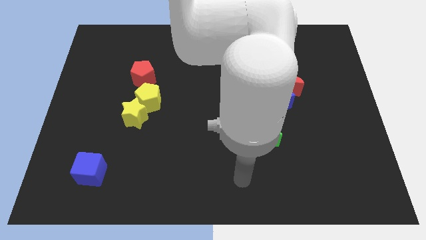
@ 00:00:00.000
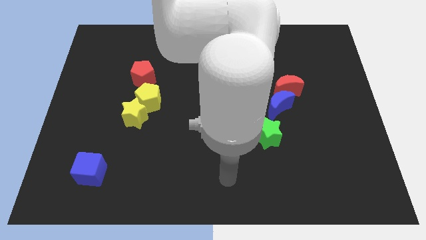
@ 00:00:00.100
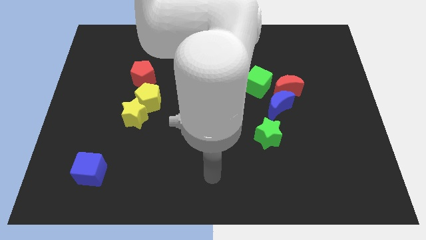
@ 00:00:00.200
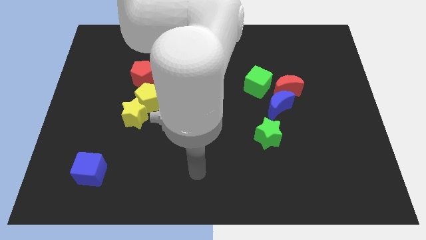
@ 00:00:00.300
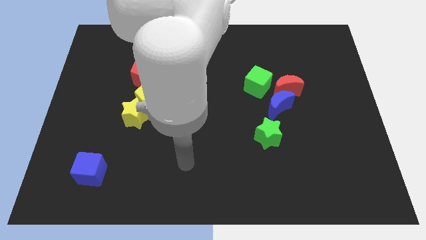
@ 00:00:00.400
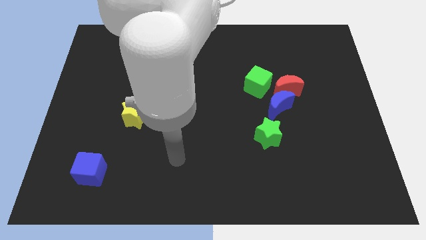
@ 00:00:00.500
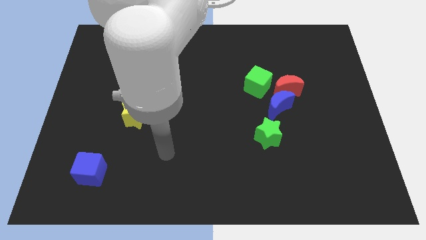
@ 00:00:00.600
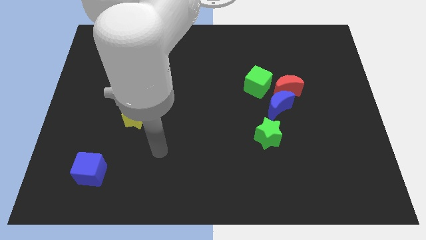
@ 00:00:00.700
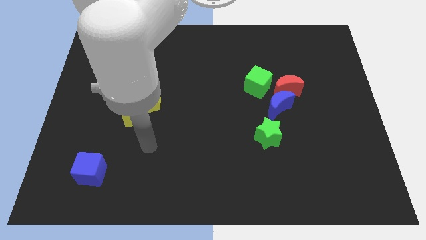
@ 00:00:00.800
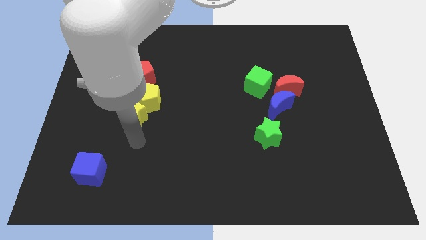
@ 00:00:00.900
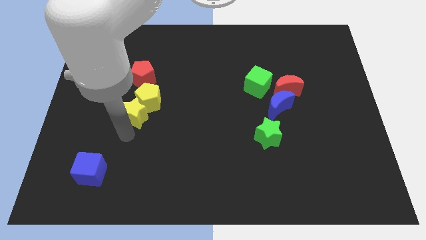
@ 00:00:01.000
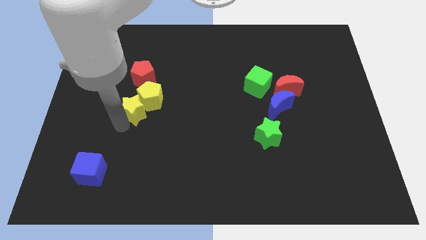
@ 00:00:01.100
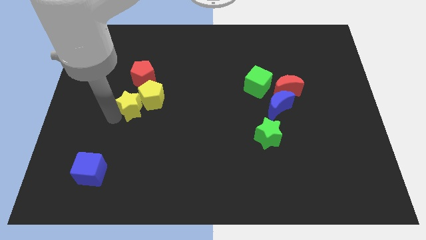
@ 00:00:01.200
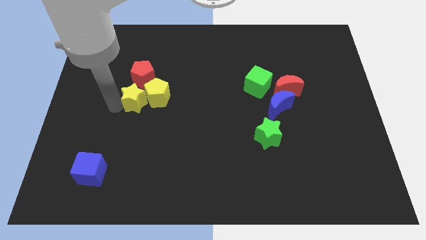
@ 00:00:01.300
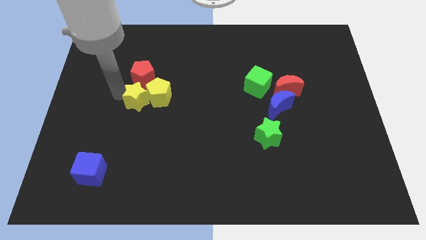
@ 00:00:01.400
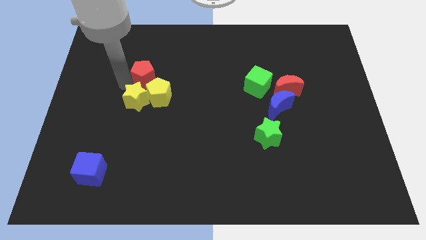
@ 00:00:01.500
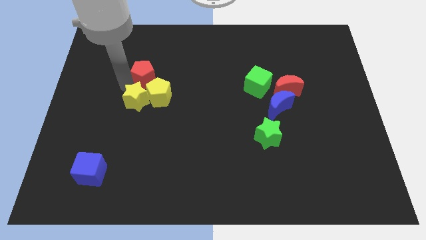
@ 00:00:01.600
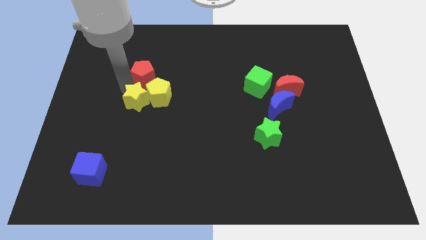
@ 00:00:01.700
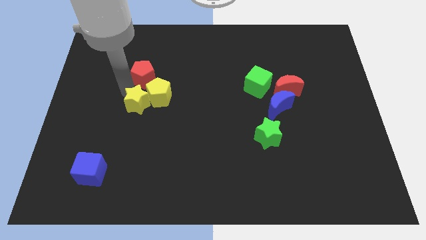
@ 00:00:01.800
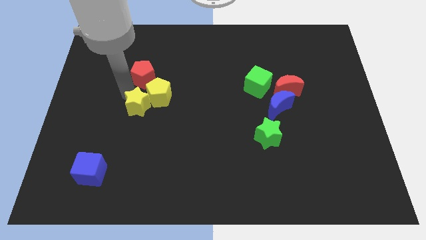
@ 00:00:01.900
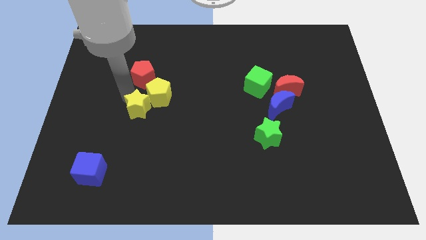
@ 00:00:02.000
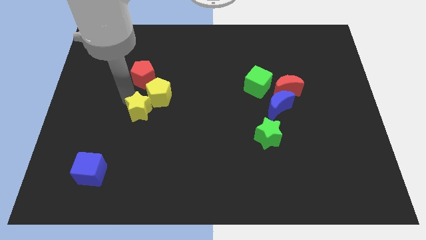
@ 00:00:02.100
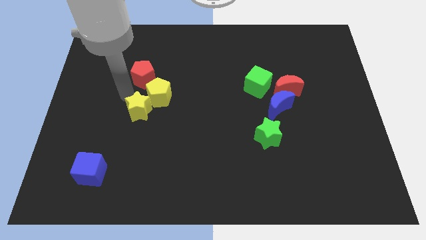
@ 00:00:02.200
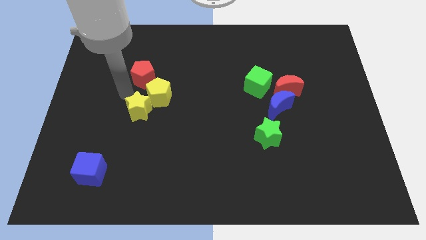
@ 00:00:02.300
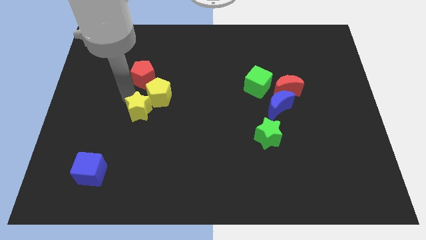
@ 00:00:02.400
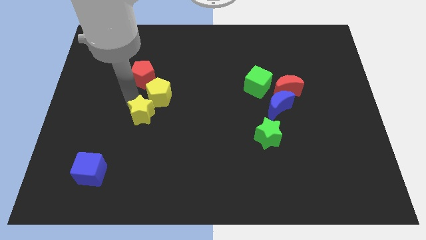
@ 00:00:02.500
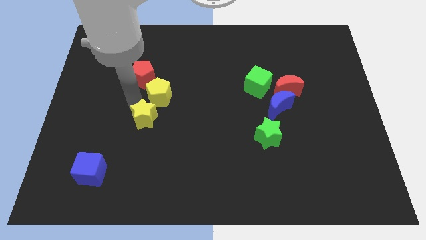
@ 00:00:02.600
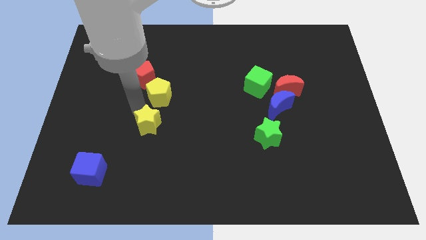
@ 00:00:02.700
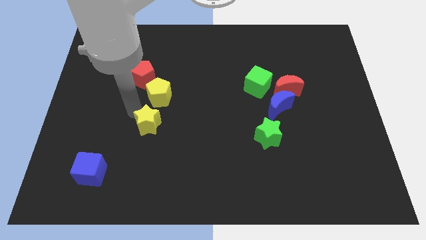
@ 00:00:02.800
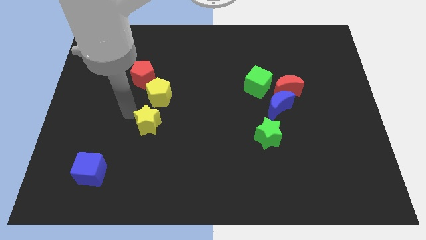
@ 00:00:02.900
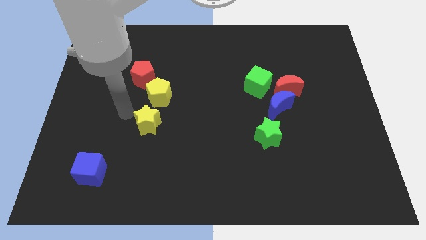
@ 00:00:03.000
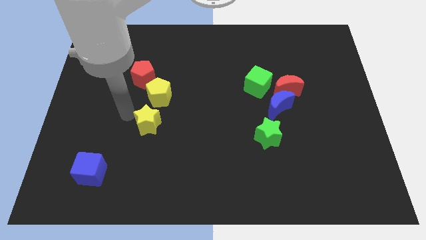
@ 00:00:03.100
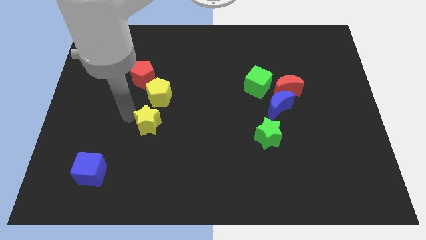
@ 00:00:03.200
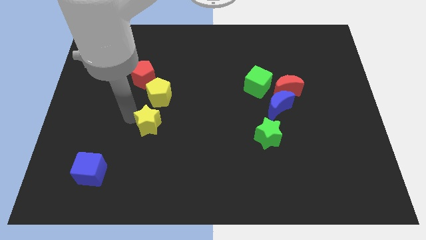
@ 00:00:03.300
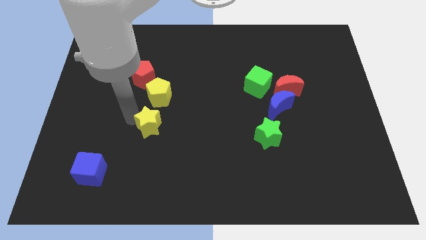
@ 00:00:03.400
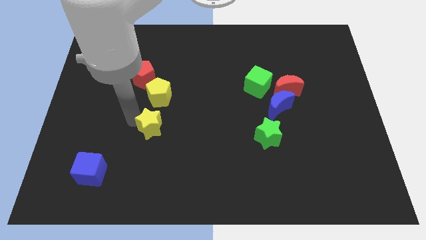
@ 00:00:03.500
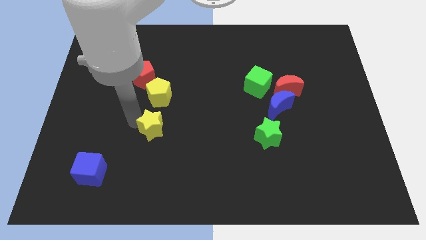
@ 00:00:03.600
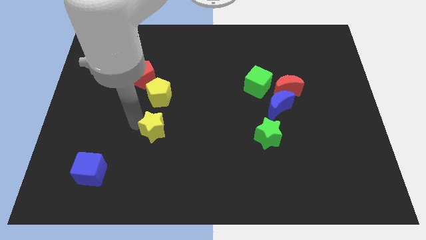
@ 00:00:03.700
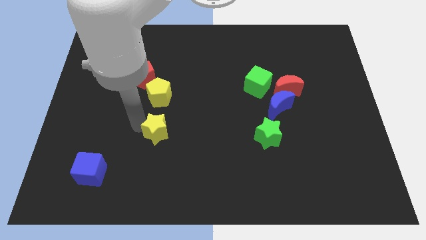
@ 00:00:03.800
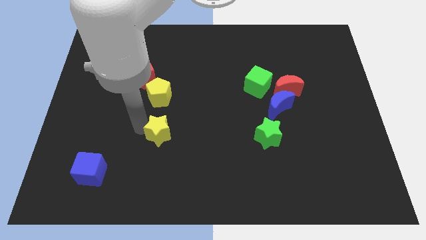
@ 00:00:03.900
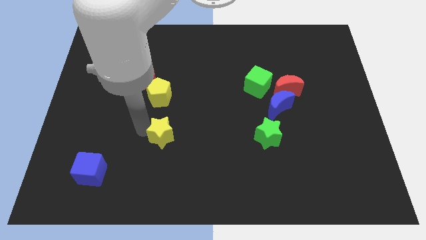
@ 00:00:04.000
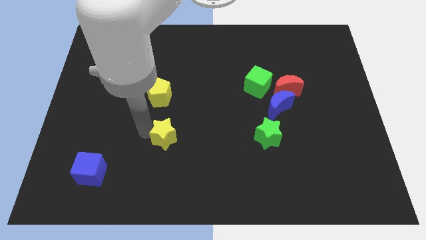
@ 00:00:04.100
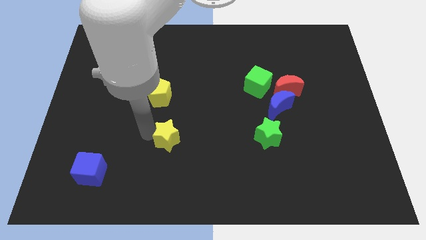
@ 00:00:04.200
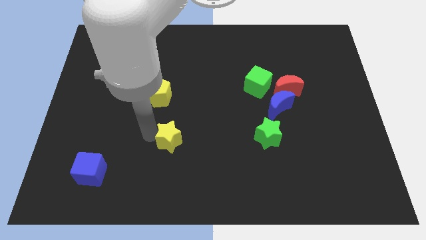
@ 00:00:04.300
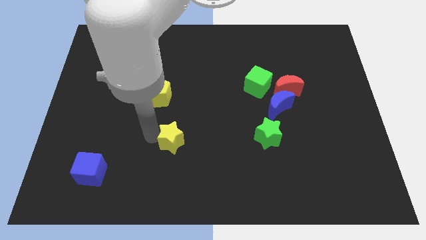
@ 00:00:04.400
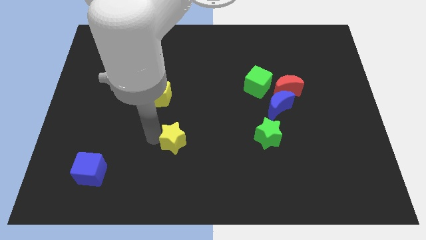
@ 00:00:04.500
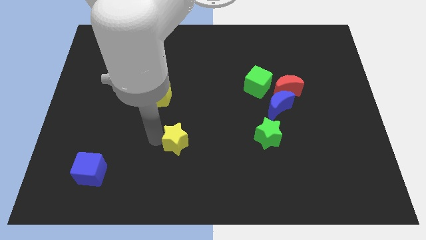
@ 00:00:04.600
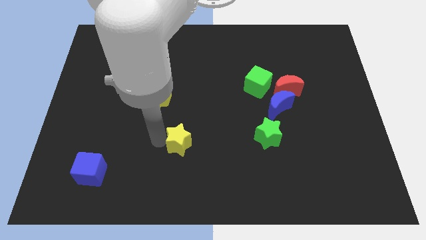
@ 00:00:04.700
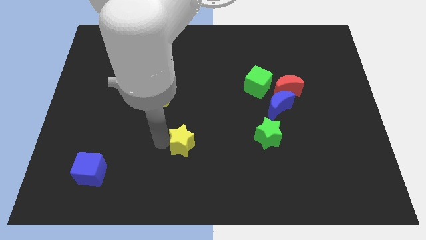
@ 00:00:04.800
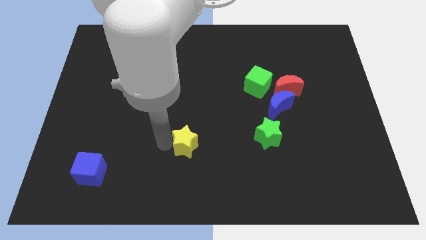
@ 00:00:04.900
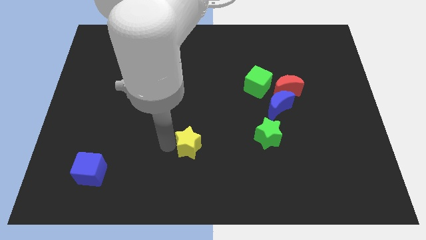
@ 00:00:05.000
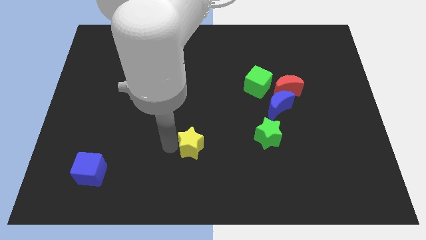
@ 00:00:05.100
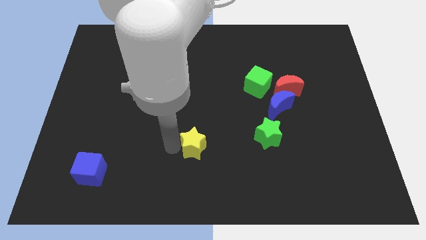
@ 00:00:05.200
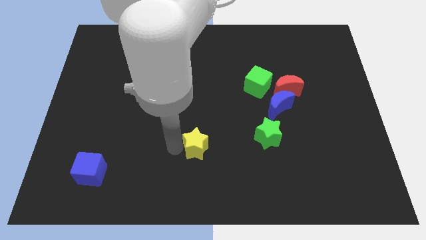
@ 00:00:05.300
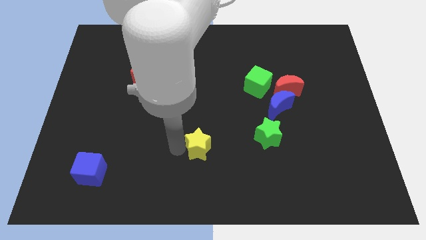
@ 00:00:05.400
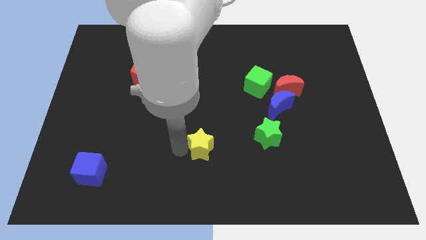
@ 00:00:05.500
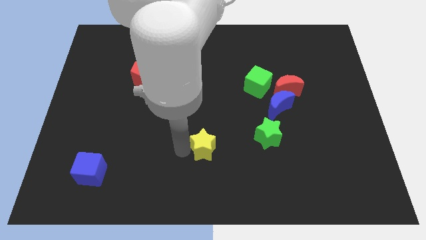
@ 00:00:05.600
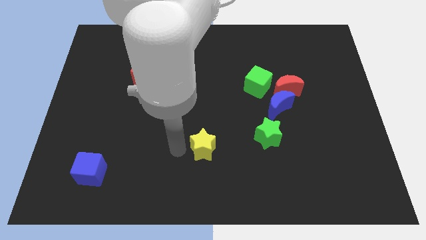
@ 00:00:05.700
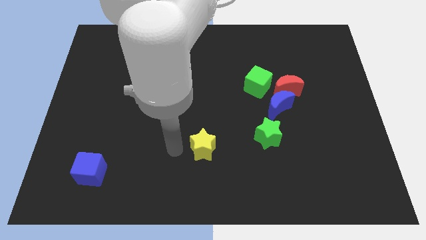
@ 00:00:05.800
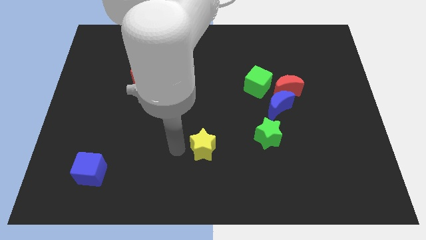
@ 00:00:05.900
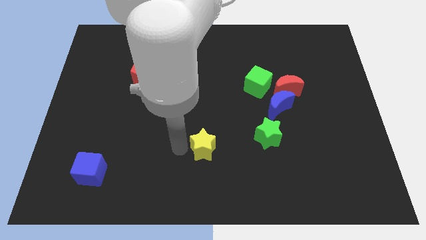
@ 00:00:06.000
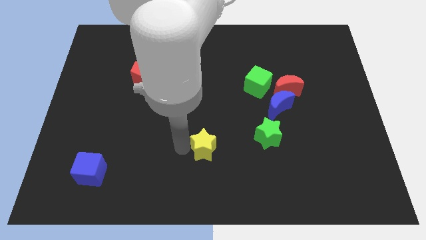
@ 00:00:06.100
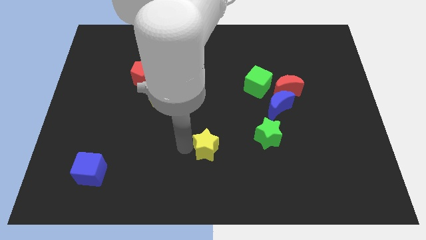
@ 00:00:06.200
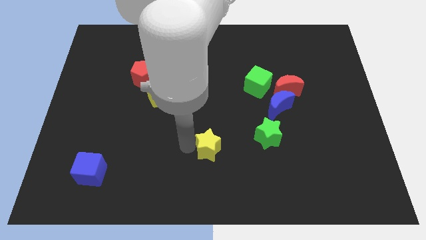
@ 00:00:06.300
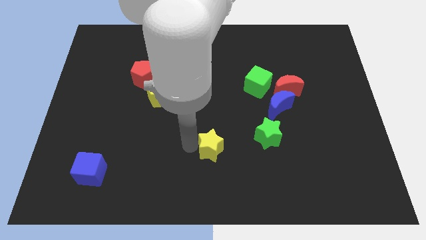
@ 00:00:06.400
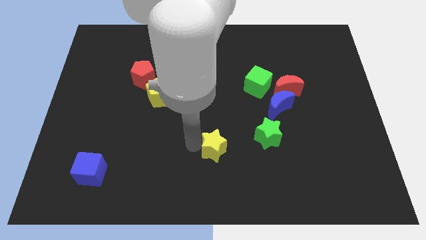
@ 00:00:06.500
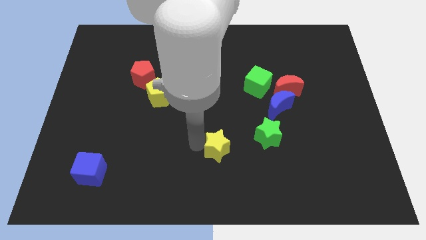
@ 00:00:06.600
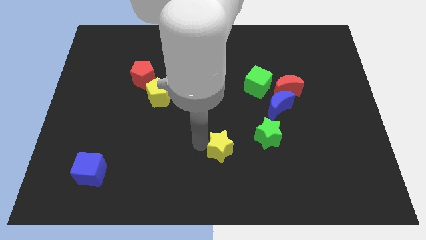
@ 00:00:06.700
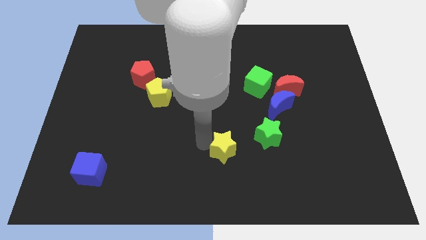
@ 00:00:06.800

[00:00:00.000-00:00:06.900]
put the yellow star to the bottom left side of the green star

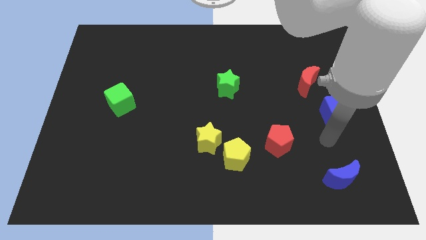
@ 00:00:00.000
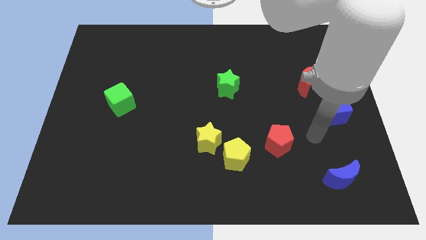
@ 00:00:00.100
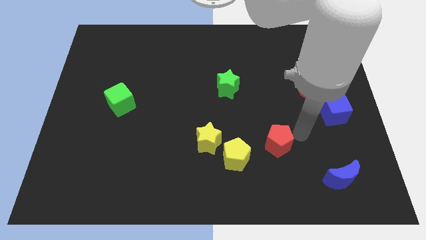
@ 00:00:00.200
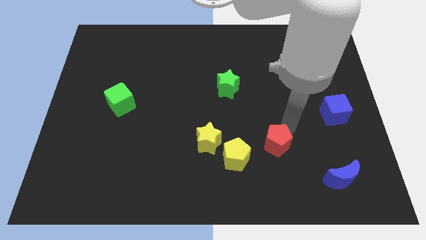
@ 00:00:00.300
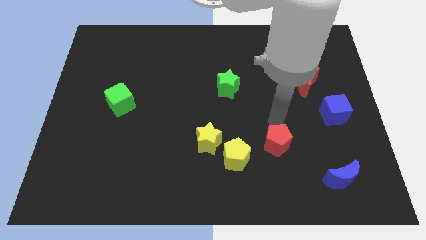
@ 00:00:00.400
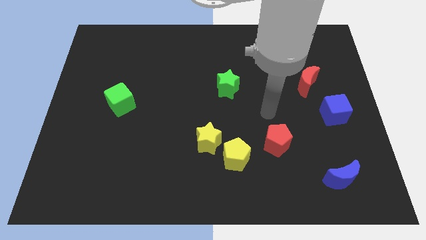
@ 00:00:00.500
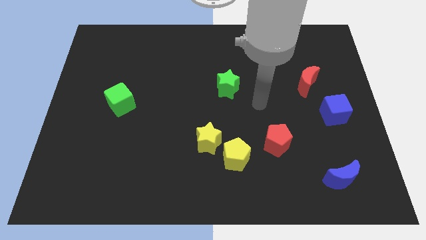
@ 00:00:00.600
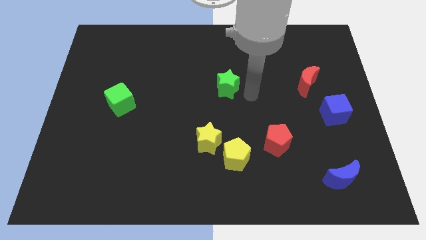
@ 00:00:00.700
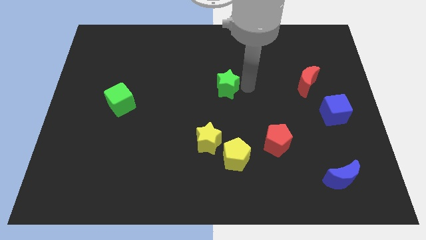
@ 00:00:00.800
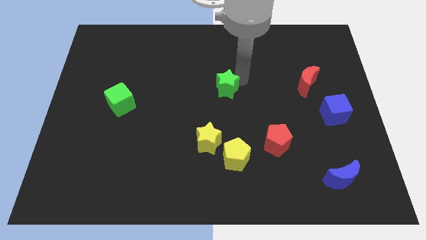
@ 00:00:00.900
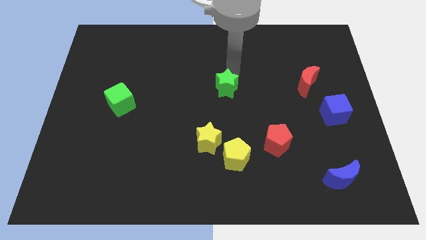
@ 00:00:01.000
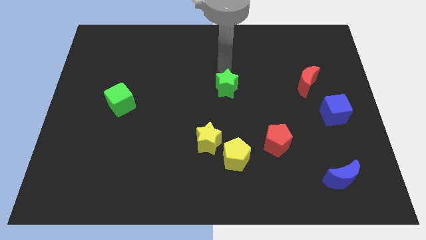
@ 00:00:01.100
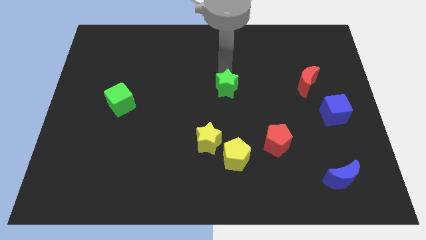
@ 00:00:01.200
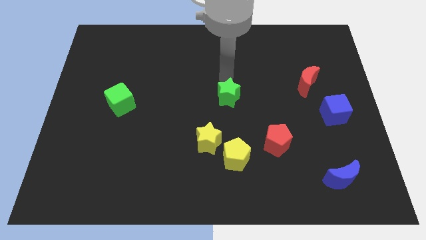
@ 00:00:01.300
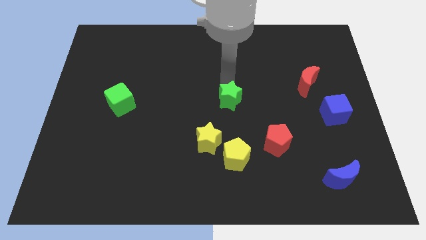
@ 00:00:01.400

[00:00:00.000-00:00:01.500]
put the green star above the yellow pentagon
